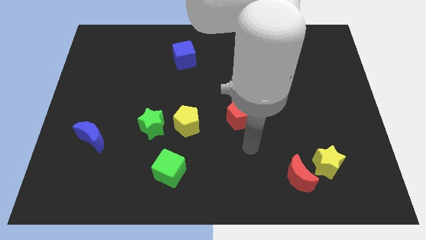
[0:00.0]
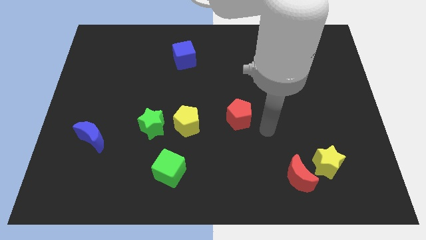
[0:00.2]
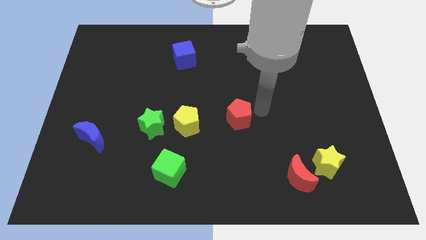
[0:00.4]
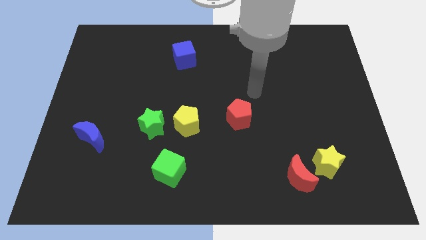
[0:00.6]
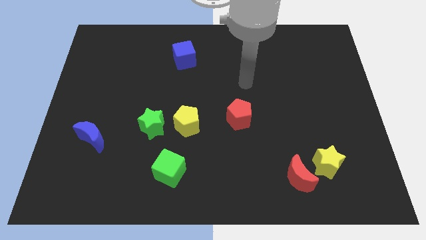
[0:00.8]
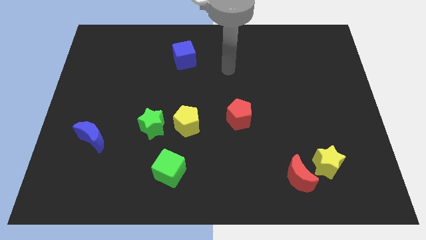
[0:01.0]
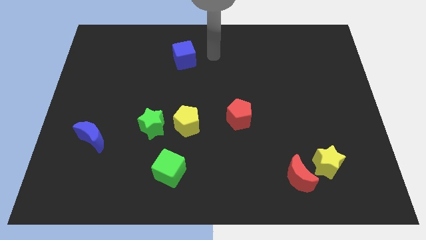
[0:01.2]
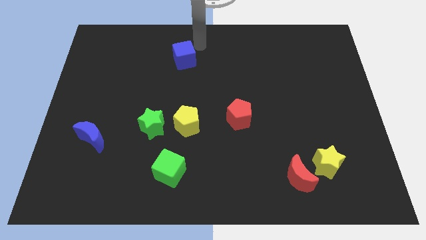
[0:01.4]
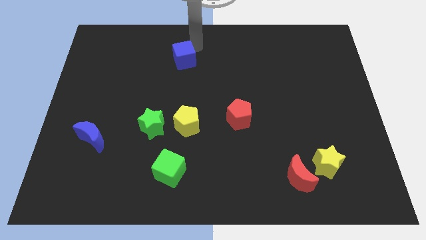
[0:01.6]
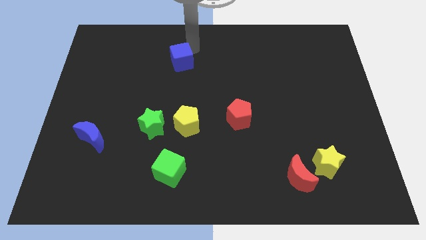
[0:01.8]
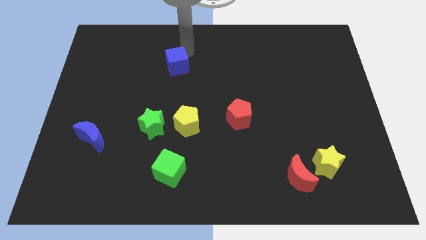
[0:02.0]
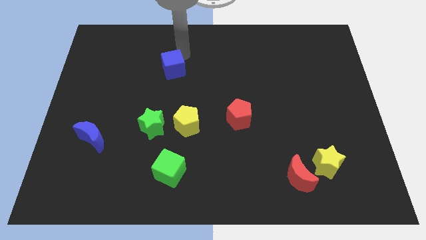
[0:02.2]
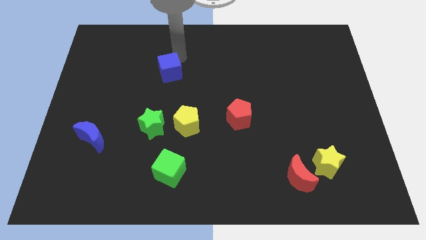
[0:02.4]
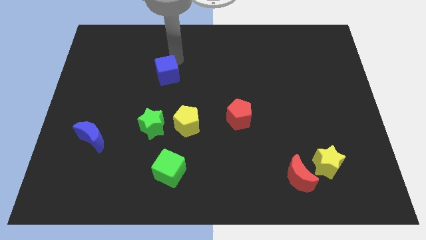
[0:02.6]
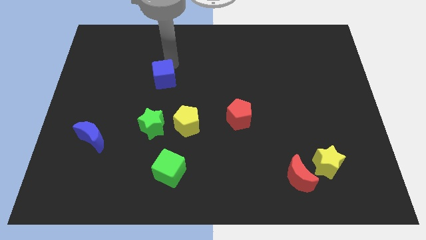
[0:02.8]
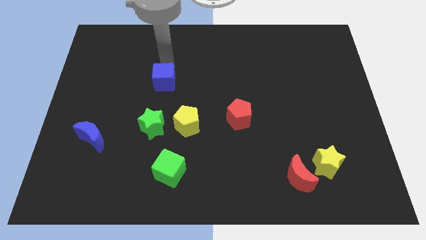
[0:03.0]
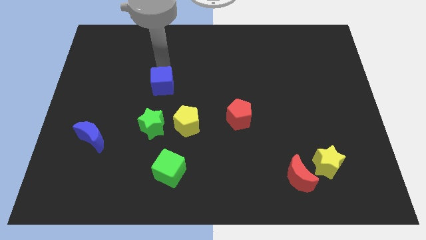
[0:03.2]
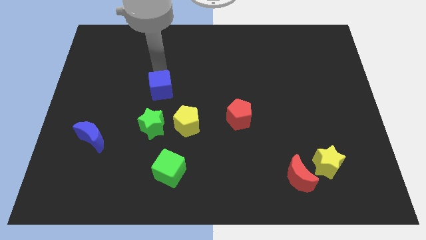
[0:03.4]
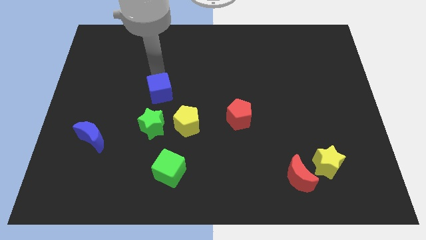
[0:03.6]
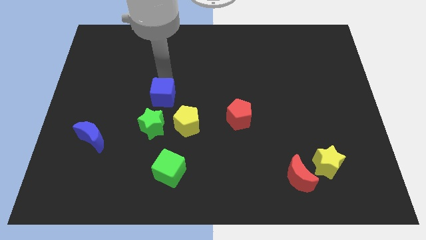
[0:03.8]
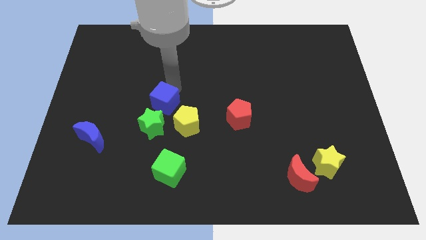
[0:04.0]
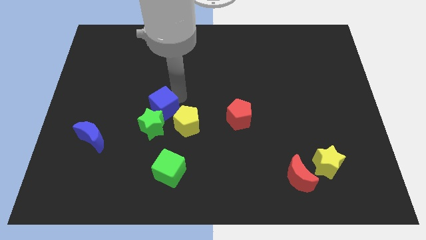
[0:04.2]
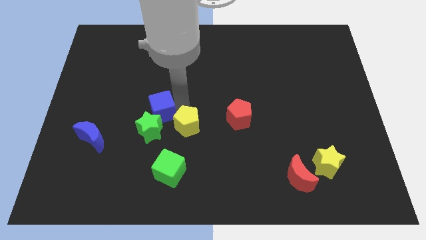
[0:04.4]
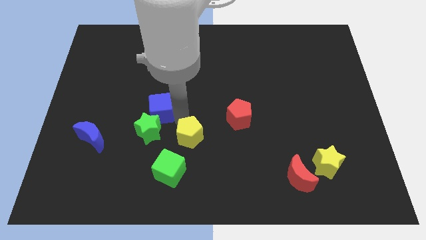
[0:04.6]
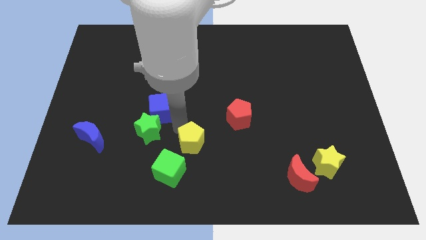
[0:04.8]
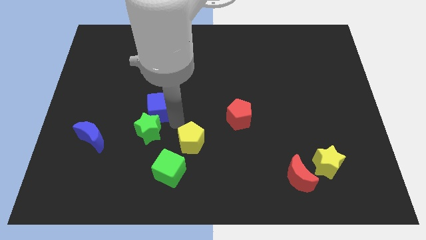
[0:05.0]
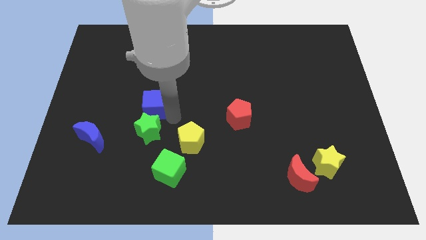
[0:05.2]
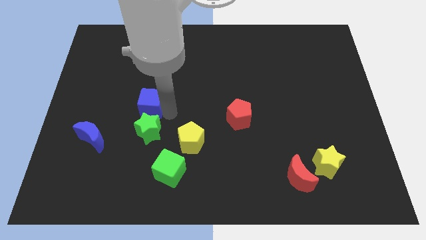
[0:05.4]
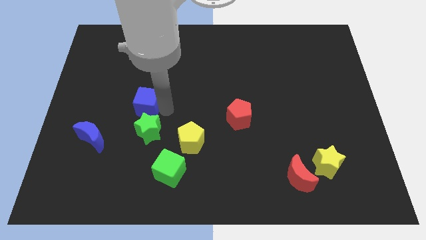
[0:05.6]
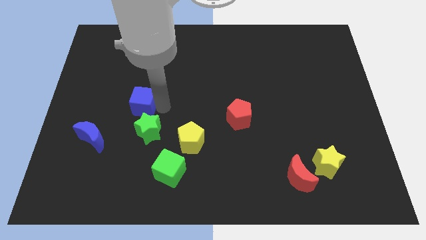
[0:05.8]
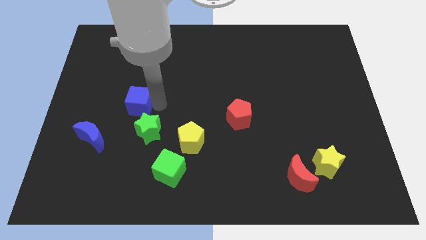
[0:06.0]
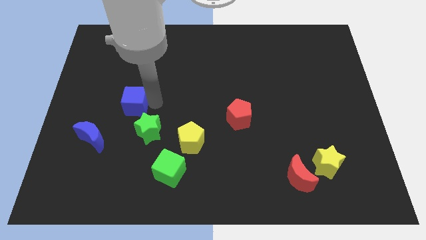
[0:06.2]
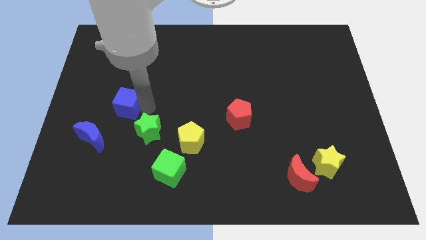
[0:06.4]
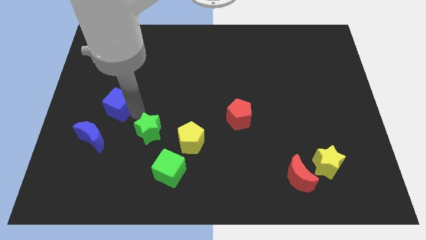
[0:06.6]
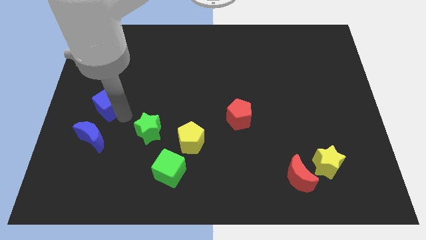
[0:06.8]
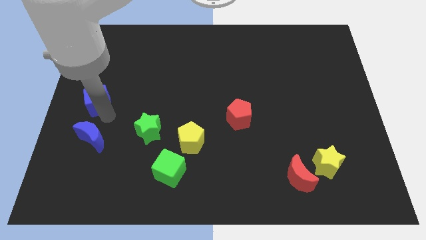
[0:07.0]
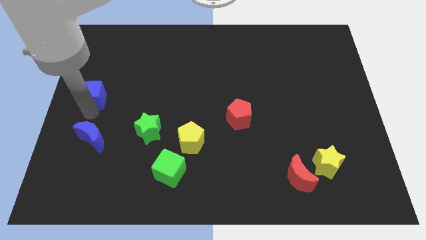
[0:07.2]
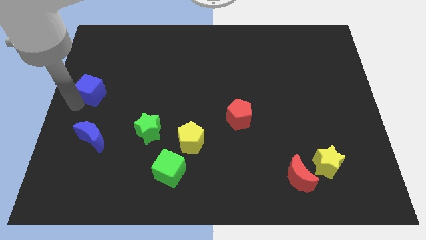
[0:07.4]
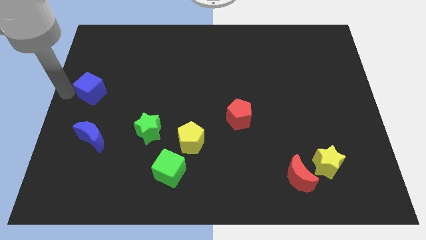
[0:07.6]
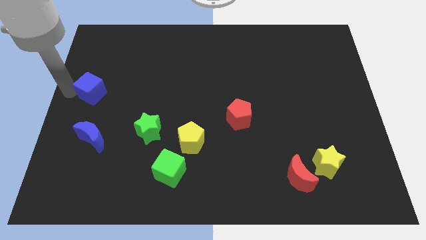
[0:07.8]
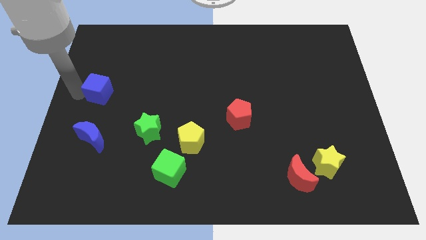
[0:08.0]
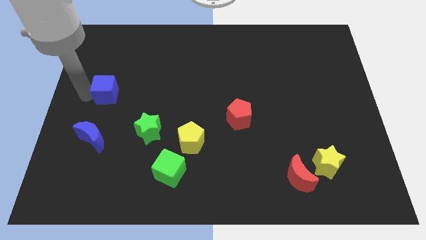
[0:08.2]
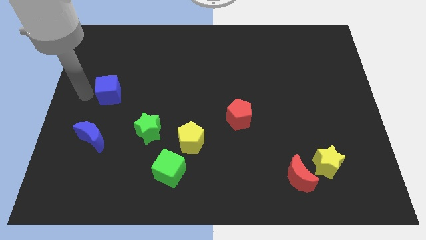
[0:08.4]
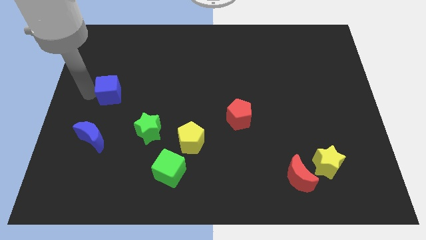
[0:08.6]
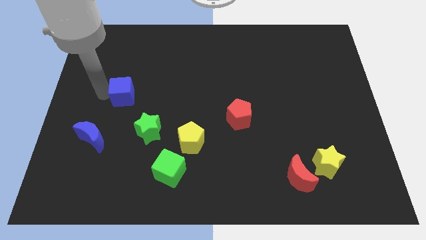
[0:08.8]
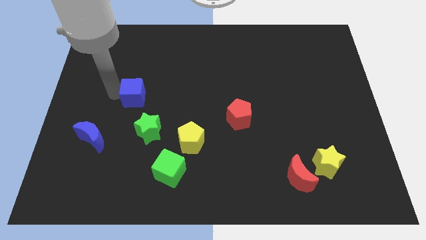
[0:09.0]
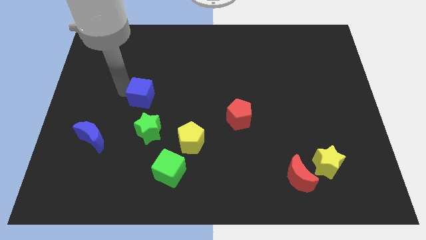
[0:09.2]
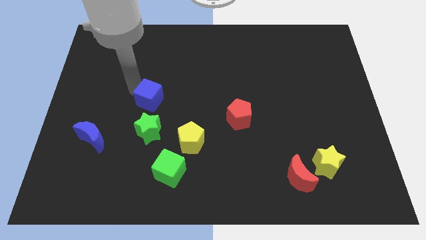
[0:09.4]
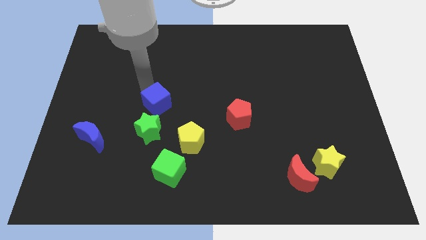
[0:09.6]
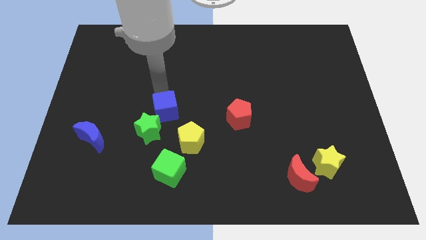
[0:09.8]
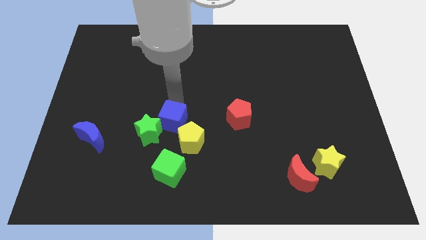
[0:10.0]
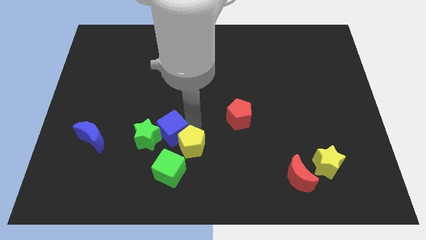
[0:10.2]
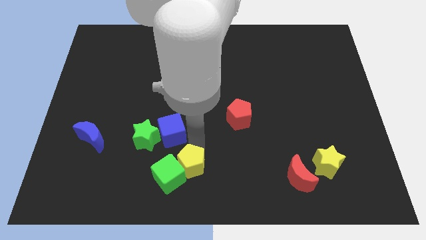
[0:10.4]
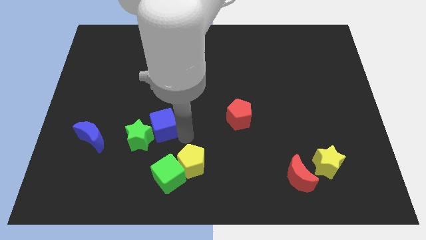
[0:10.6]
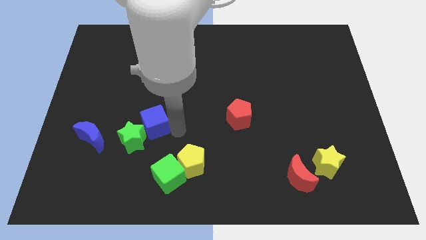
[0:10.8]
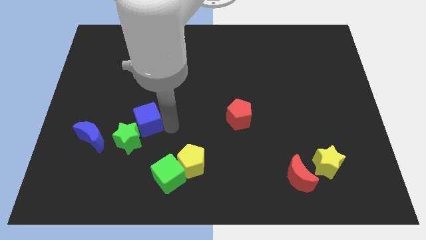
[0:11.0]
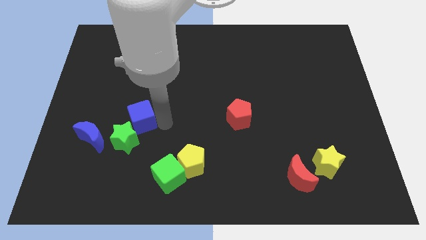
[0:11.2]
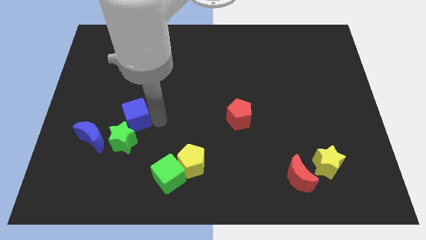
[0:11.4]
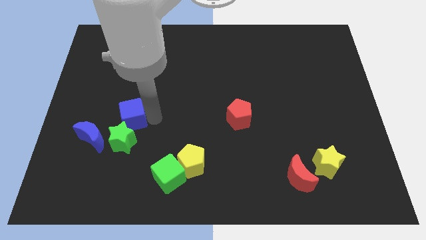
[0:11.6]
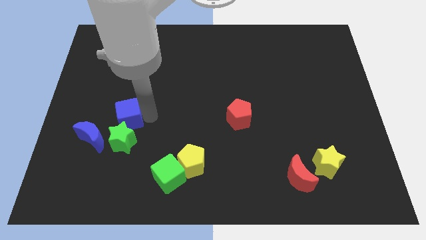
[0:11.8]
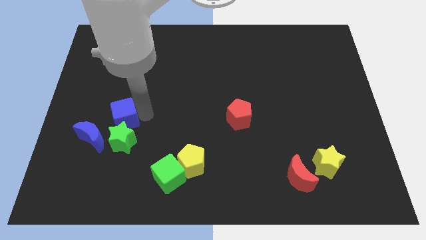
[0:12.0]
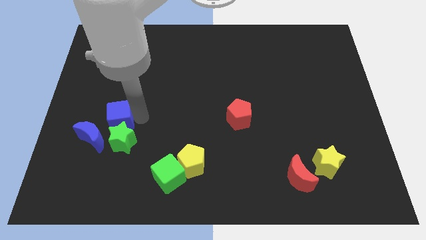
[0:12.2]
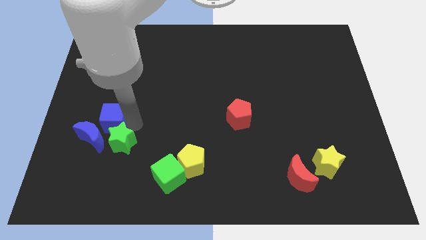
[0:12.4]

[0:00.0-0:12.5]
move the blue cube close to the blue moon

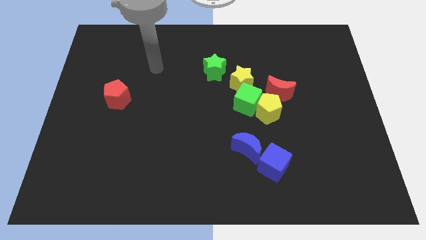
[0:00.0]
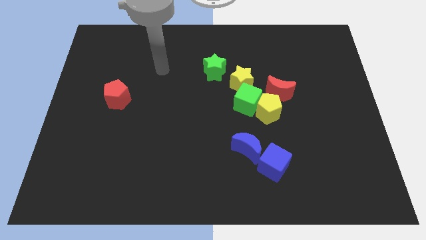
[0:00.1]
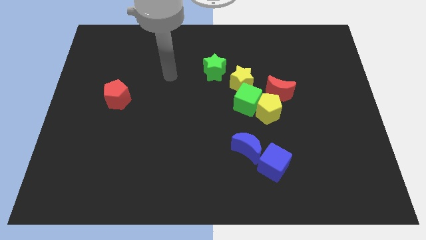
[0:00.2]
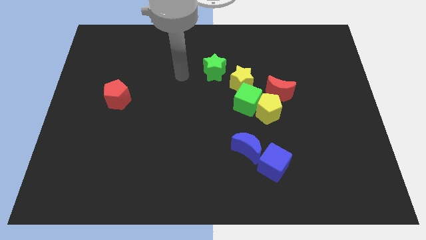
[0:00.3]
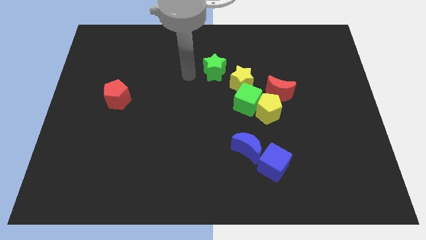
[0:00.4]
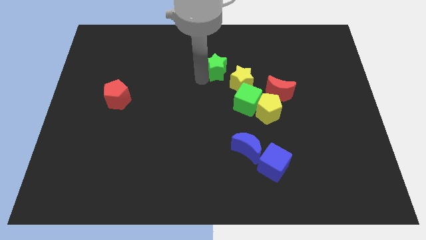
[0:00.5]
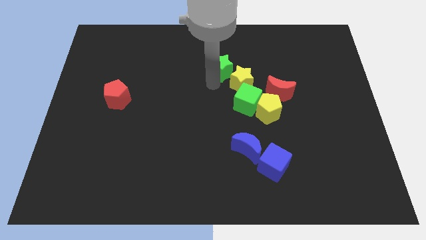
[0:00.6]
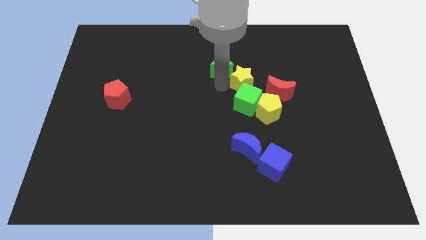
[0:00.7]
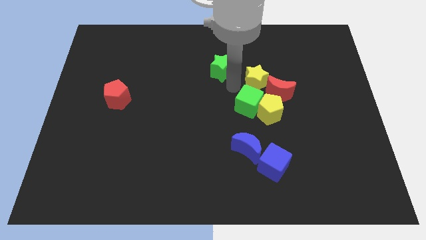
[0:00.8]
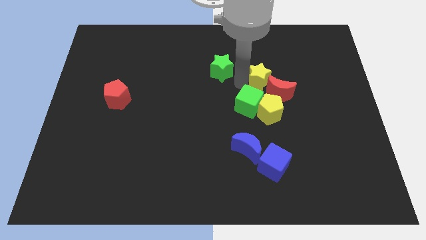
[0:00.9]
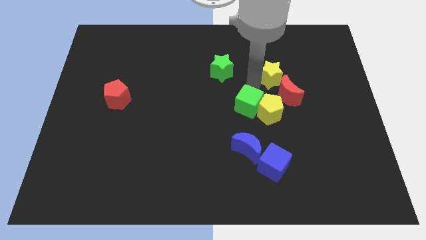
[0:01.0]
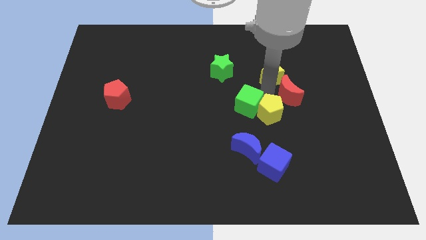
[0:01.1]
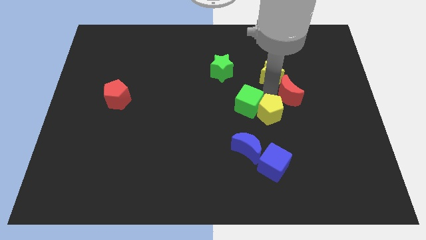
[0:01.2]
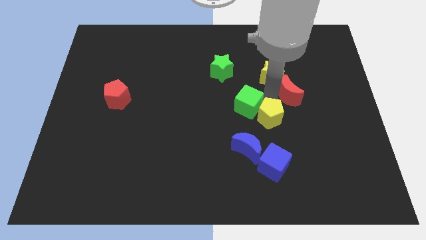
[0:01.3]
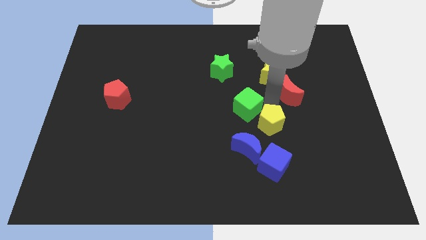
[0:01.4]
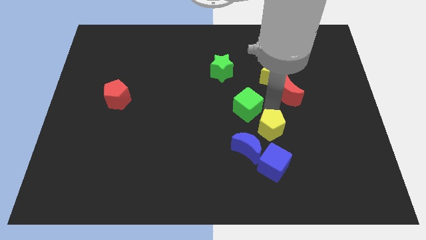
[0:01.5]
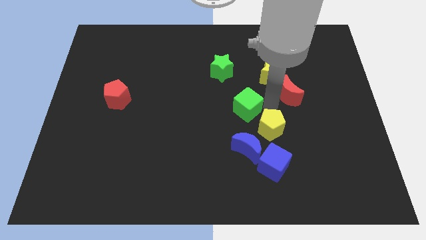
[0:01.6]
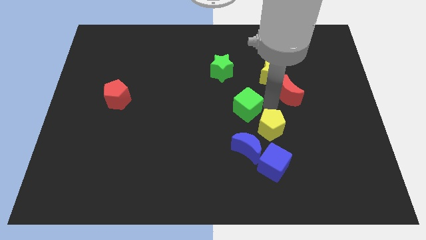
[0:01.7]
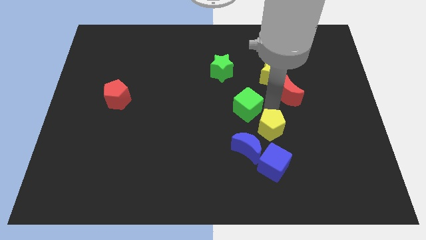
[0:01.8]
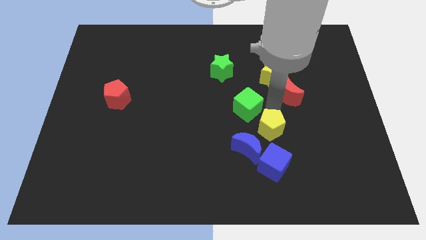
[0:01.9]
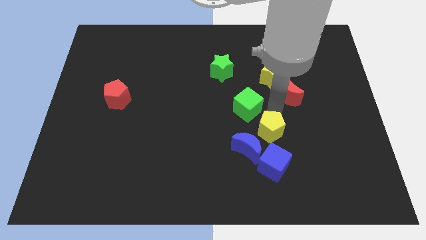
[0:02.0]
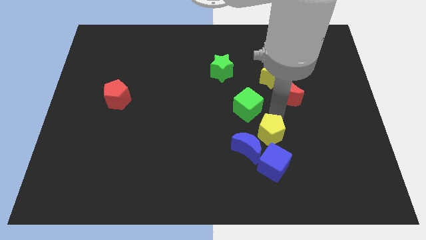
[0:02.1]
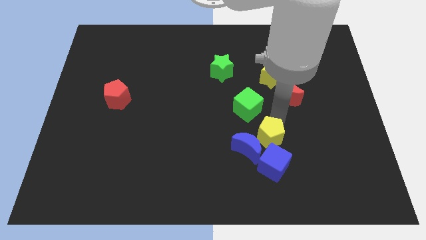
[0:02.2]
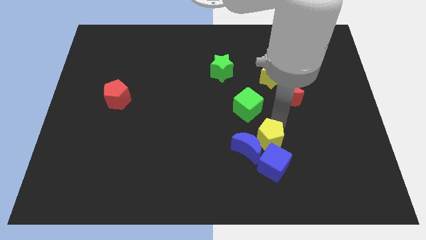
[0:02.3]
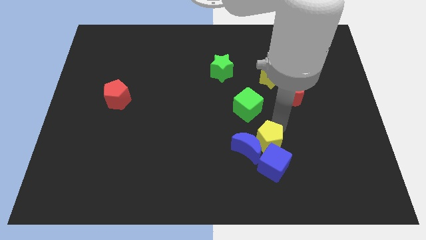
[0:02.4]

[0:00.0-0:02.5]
slide the yellow pentagon close to the blue cube
